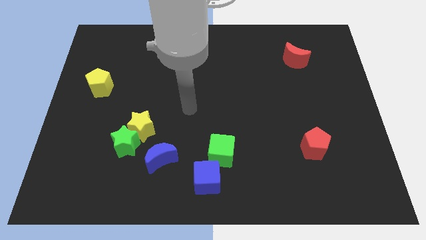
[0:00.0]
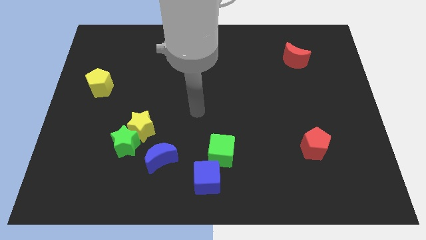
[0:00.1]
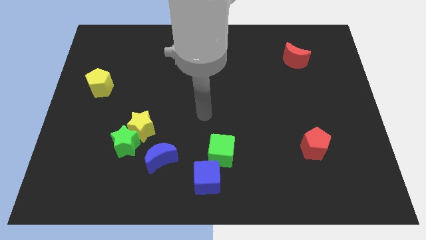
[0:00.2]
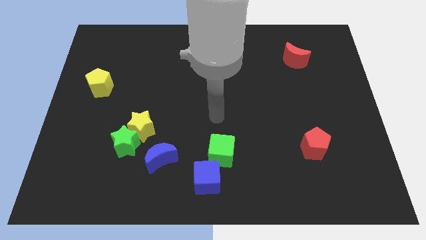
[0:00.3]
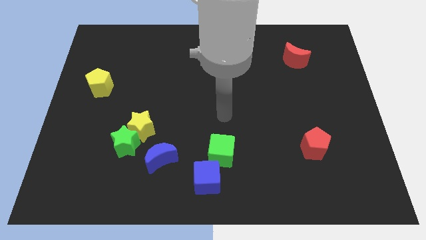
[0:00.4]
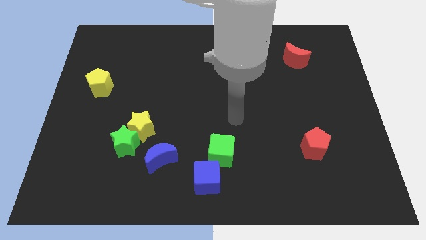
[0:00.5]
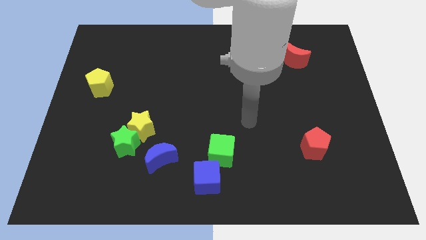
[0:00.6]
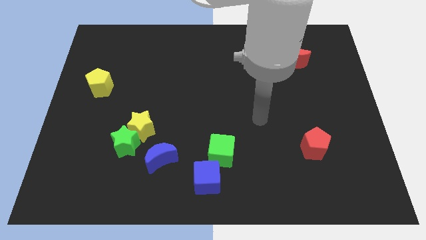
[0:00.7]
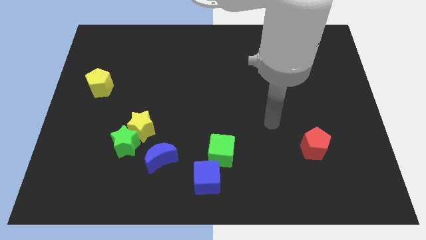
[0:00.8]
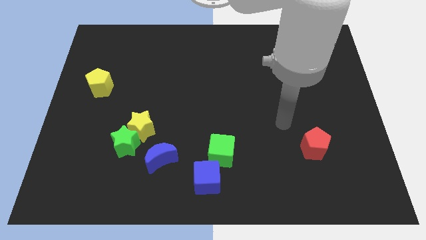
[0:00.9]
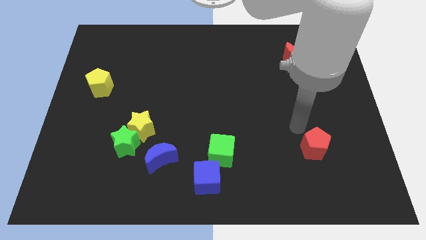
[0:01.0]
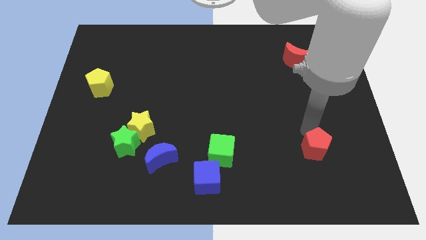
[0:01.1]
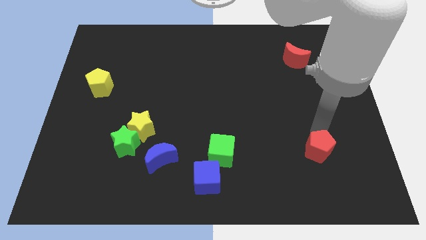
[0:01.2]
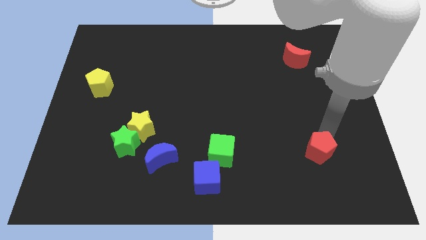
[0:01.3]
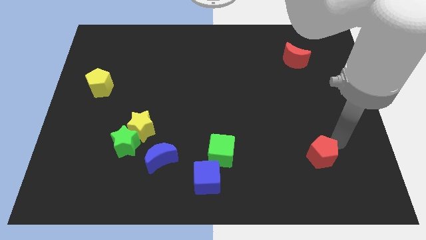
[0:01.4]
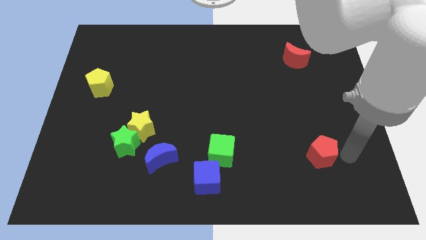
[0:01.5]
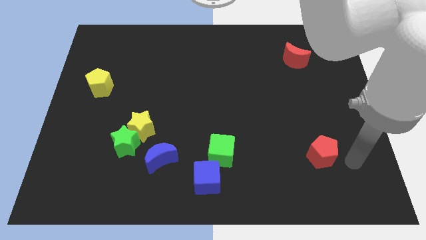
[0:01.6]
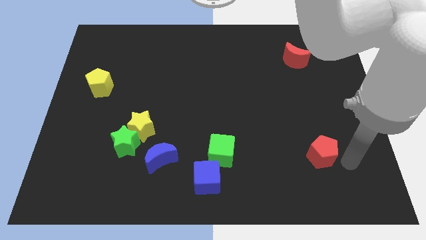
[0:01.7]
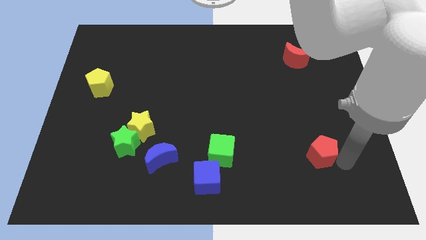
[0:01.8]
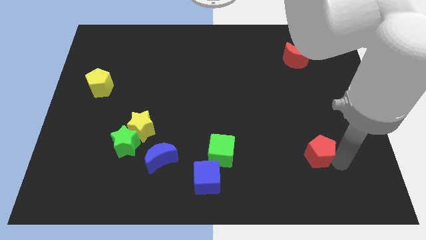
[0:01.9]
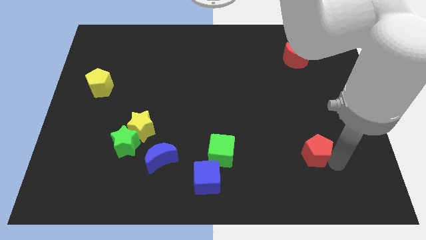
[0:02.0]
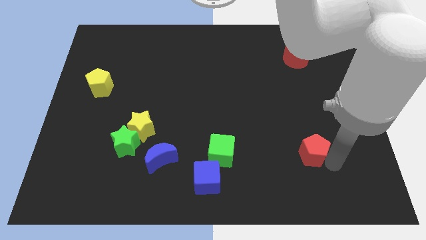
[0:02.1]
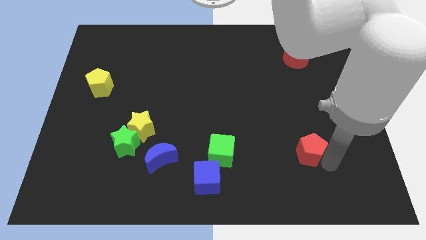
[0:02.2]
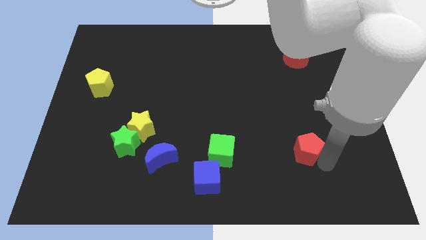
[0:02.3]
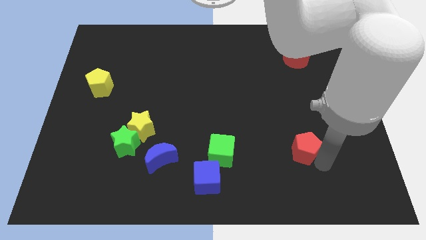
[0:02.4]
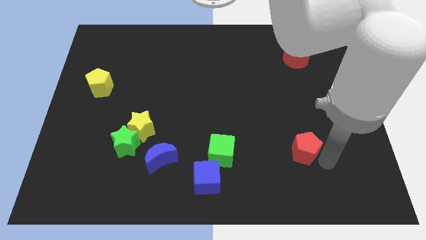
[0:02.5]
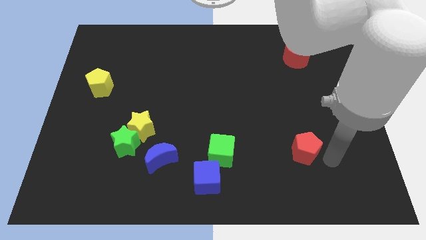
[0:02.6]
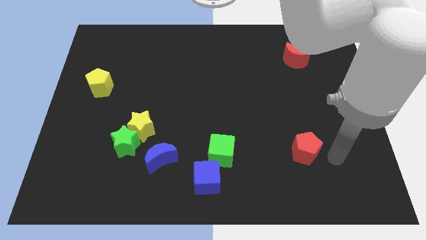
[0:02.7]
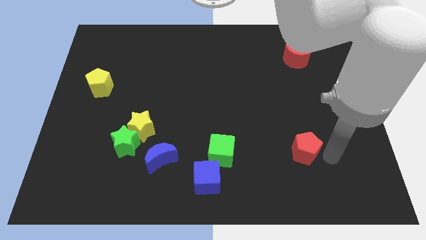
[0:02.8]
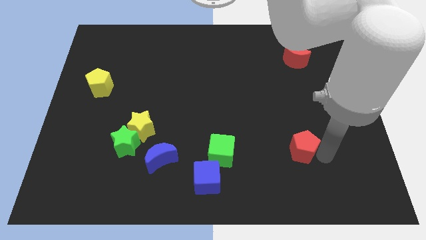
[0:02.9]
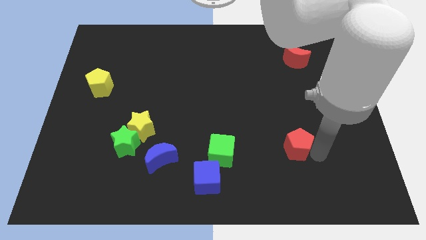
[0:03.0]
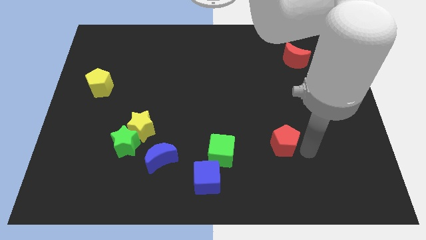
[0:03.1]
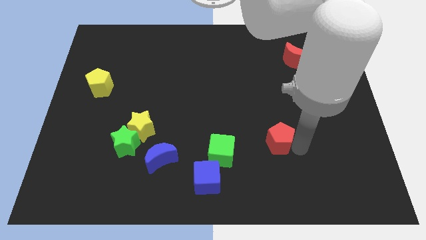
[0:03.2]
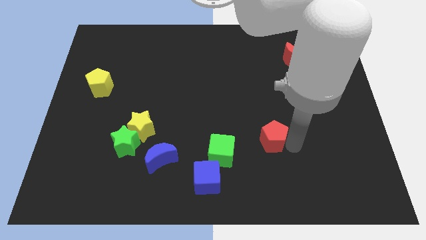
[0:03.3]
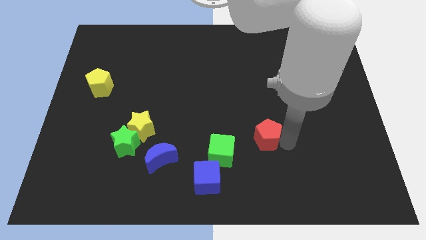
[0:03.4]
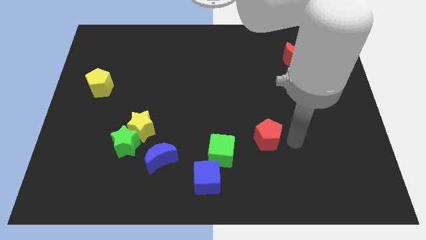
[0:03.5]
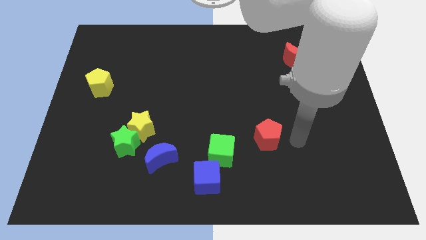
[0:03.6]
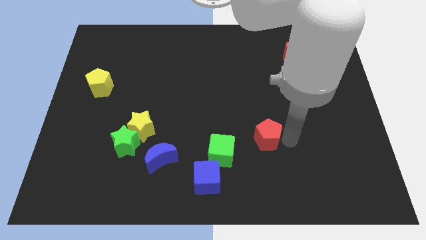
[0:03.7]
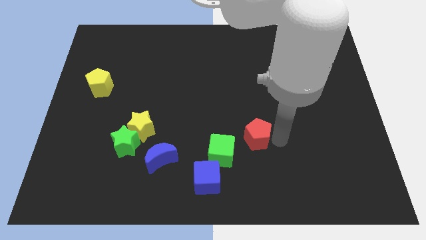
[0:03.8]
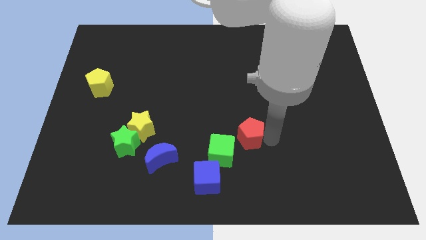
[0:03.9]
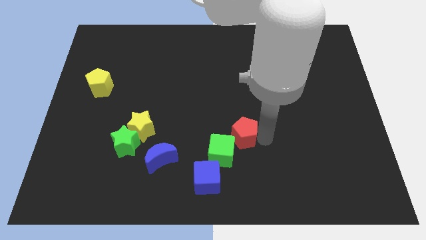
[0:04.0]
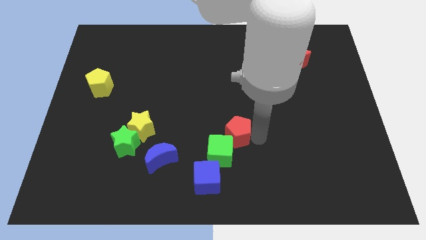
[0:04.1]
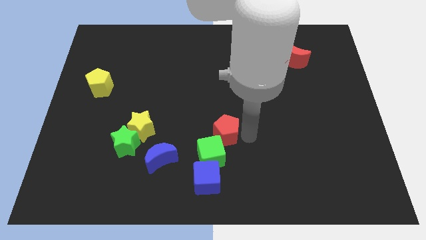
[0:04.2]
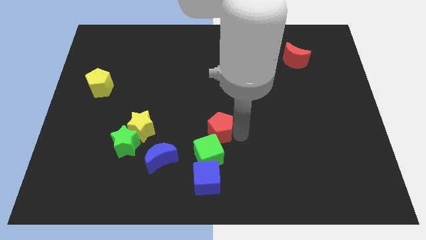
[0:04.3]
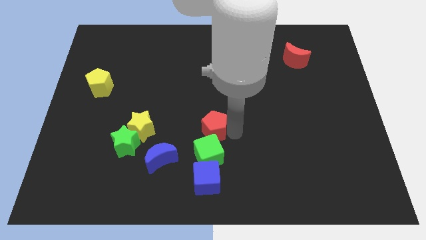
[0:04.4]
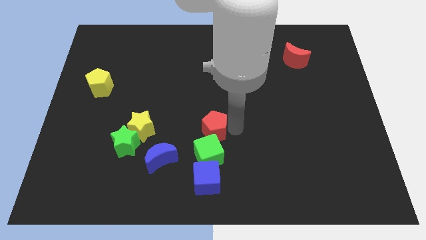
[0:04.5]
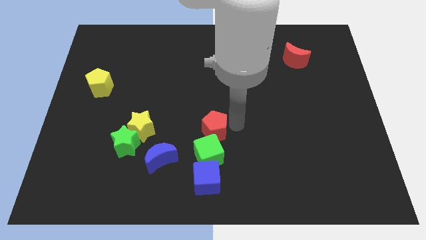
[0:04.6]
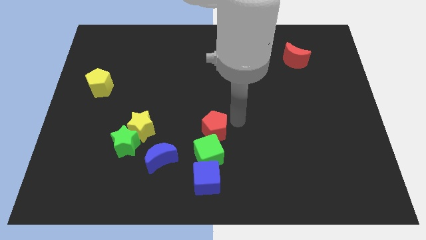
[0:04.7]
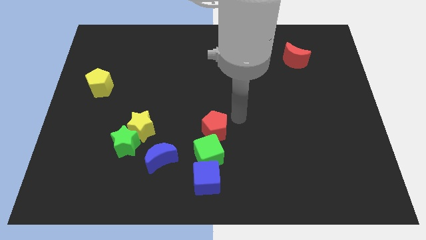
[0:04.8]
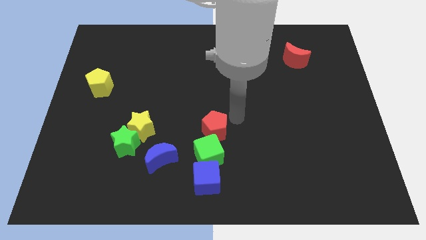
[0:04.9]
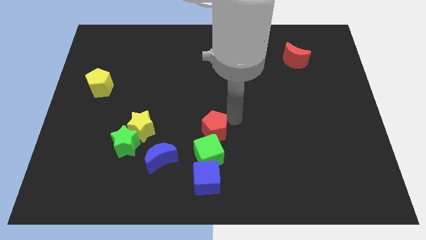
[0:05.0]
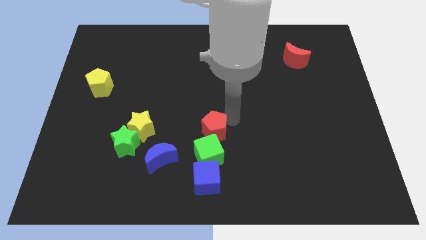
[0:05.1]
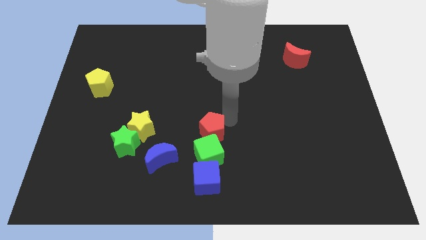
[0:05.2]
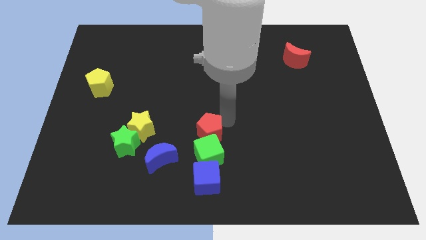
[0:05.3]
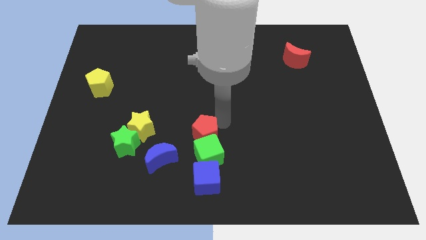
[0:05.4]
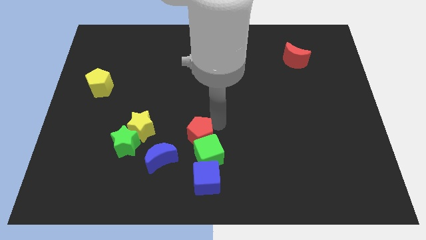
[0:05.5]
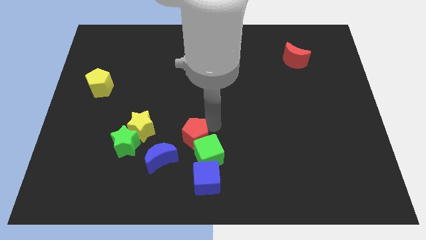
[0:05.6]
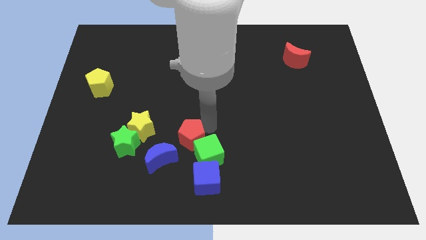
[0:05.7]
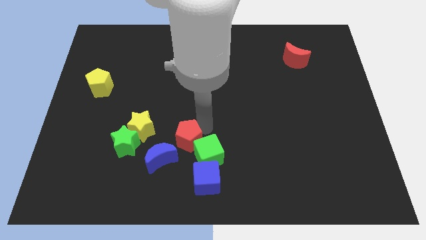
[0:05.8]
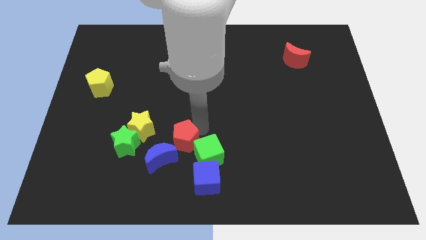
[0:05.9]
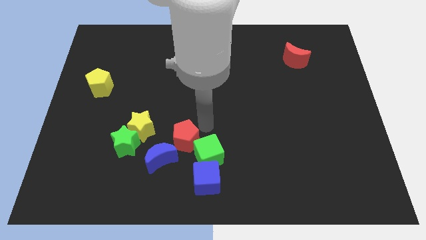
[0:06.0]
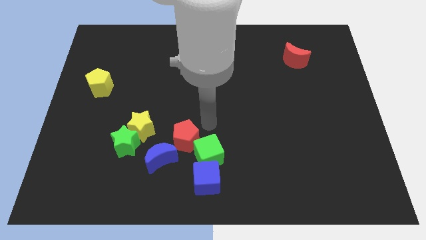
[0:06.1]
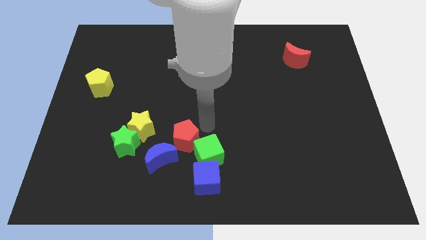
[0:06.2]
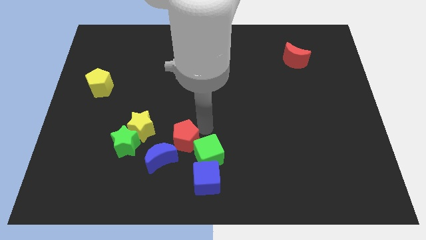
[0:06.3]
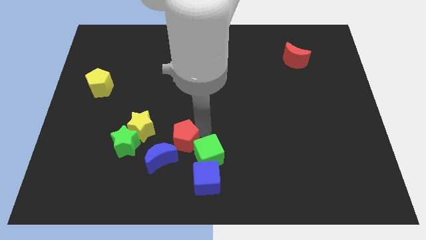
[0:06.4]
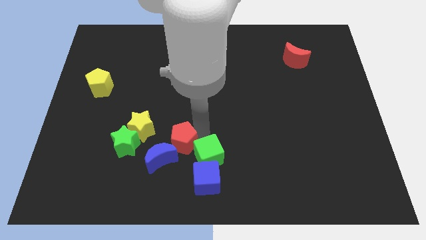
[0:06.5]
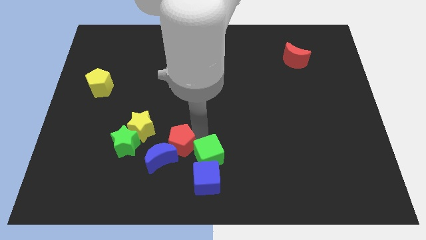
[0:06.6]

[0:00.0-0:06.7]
push the red pentagon towards the blue moon

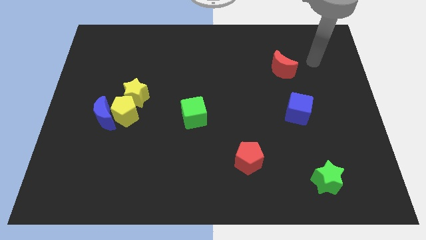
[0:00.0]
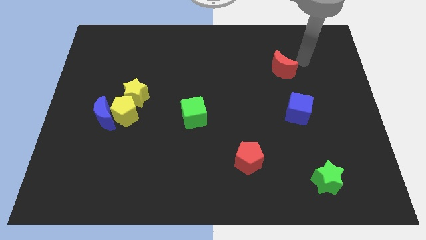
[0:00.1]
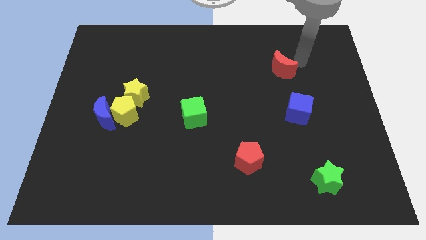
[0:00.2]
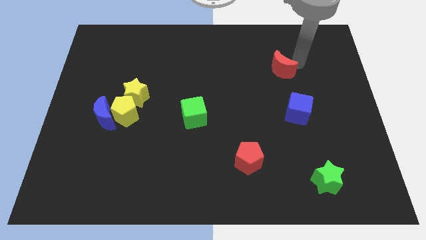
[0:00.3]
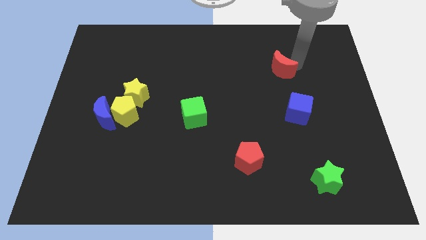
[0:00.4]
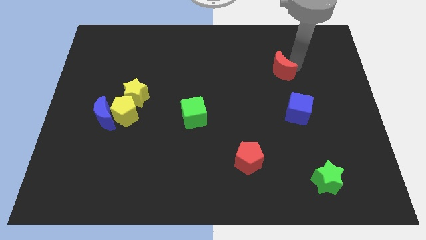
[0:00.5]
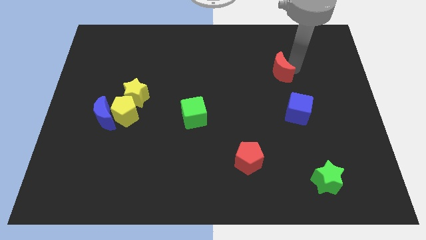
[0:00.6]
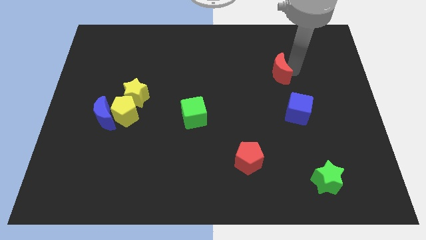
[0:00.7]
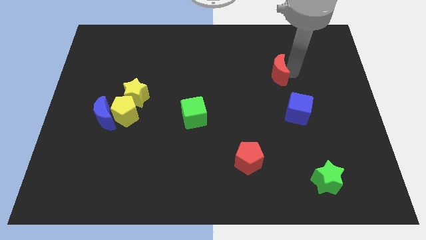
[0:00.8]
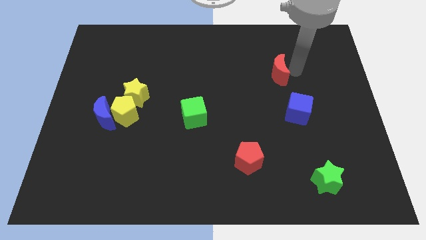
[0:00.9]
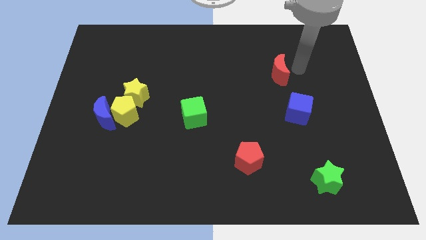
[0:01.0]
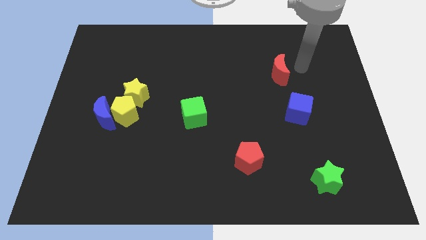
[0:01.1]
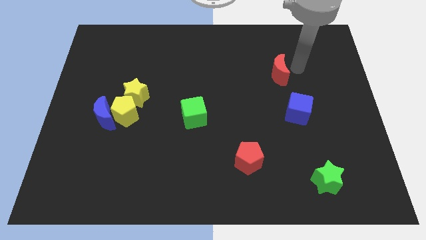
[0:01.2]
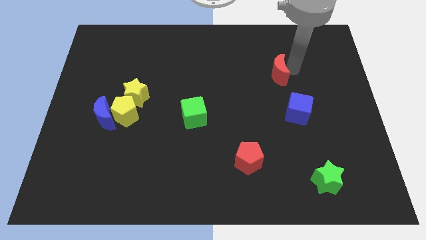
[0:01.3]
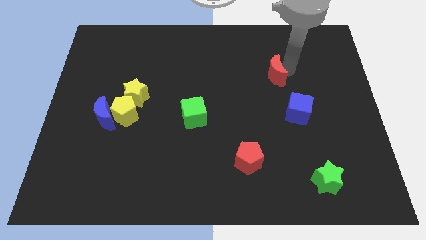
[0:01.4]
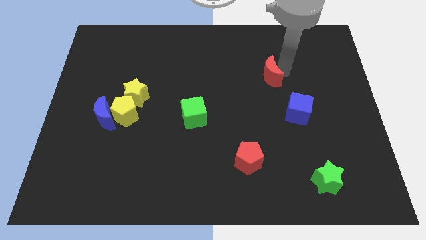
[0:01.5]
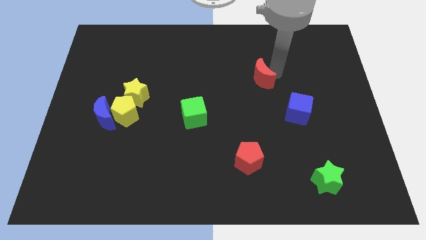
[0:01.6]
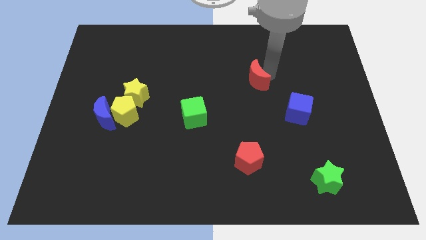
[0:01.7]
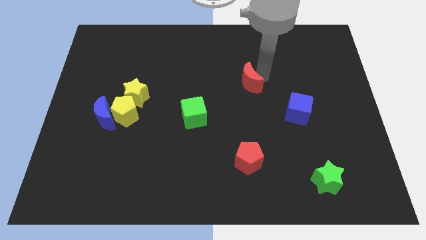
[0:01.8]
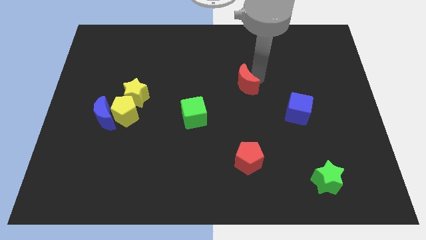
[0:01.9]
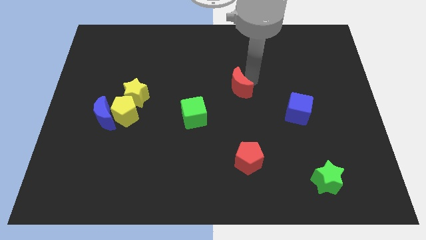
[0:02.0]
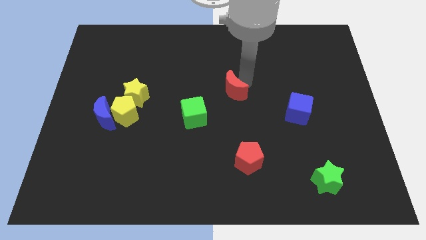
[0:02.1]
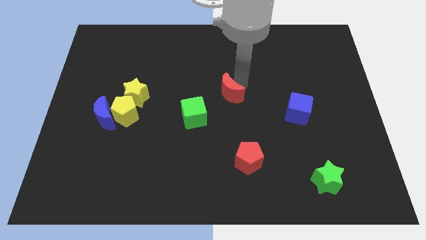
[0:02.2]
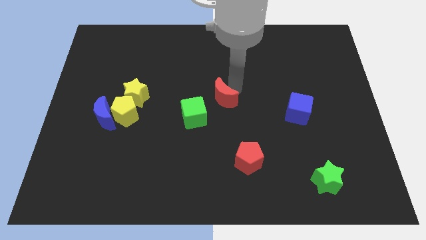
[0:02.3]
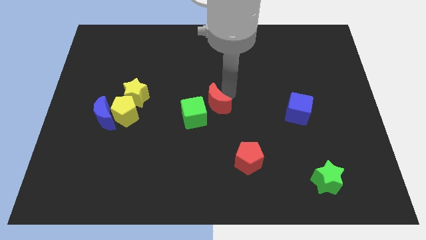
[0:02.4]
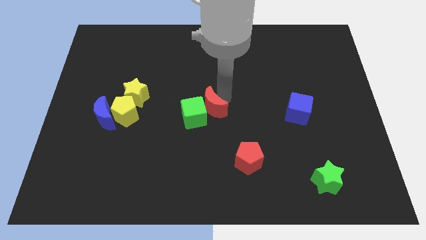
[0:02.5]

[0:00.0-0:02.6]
push the red moon to the green cube
